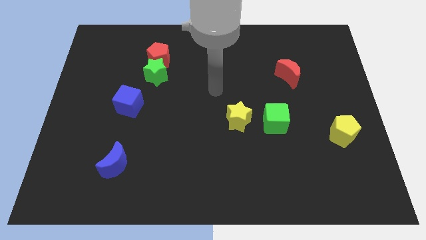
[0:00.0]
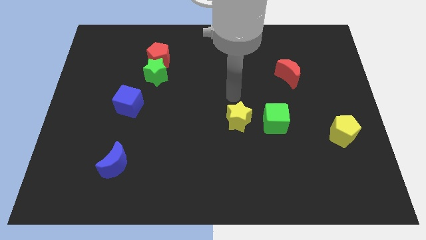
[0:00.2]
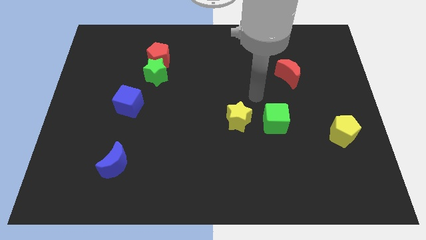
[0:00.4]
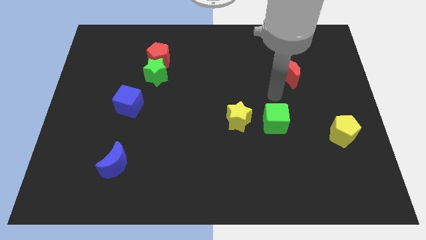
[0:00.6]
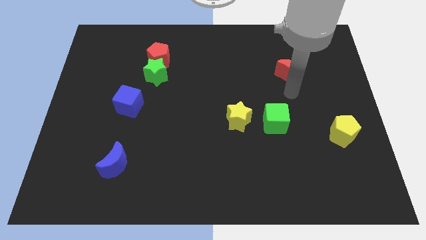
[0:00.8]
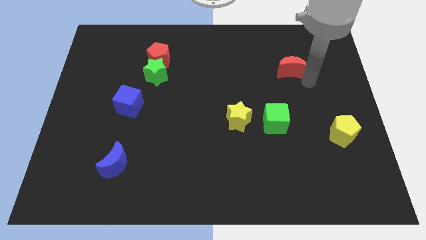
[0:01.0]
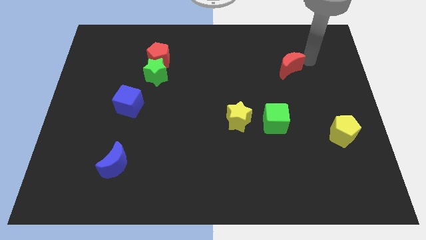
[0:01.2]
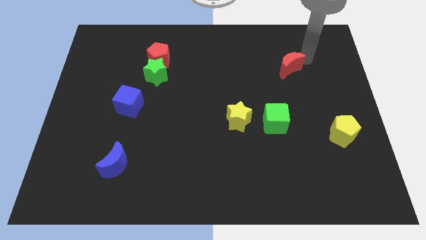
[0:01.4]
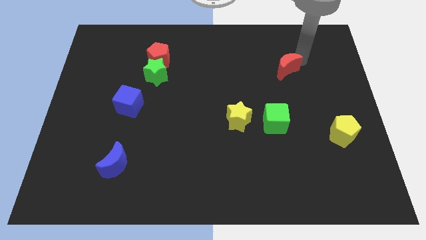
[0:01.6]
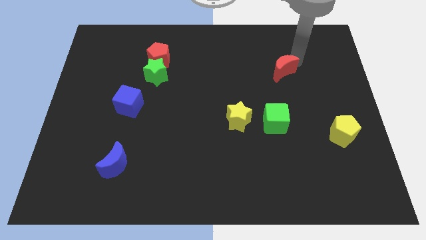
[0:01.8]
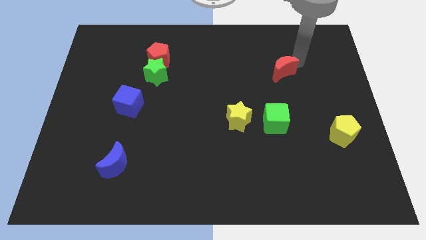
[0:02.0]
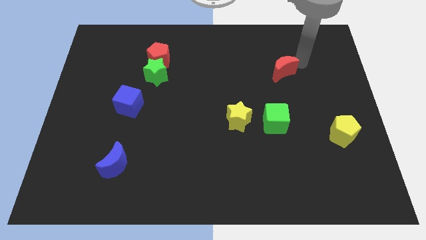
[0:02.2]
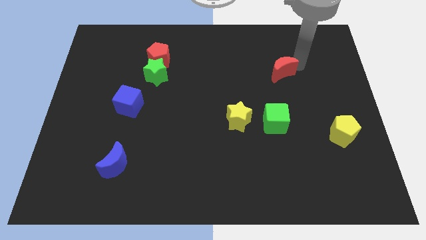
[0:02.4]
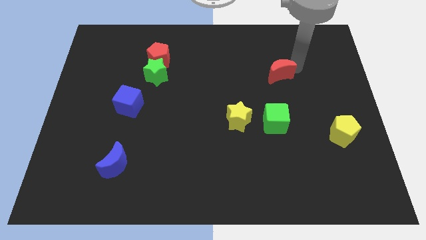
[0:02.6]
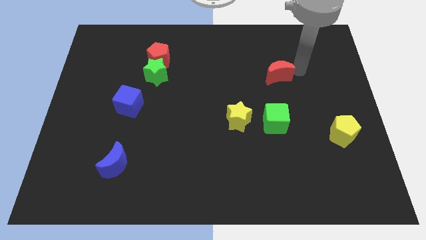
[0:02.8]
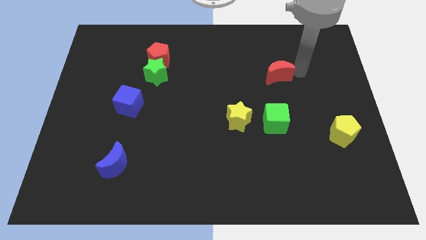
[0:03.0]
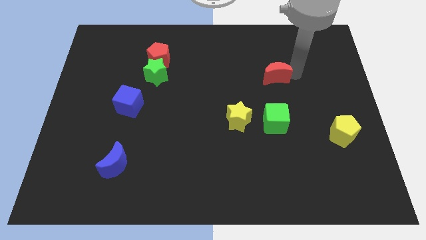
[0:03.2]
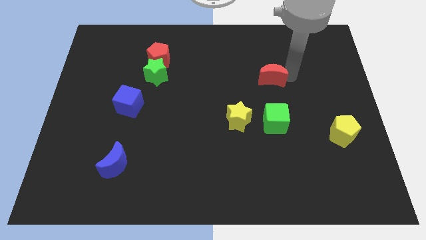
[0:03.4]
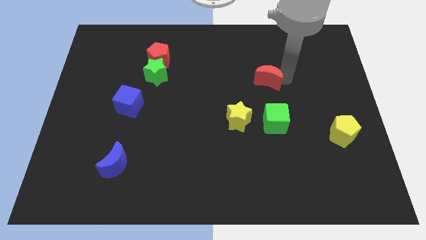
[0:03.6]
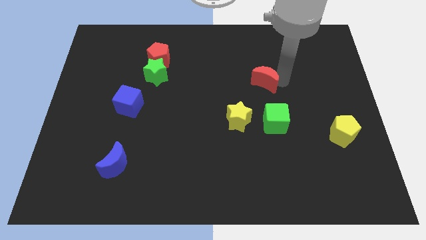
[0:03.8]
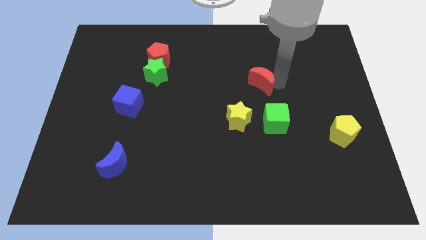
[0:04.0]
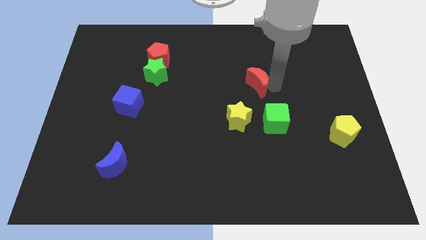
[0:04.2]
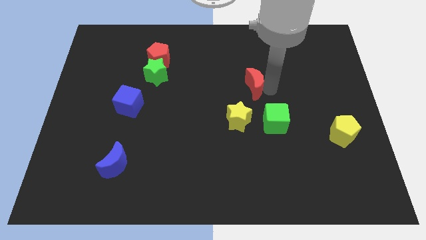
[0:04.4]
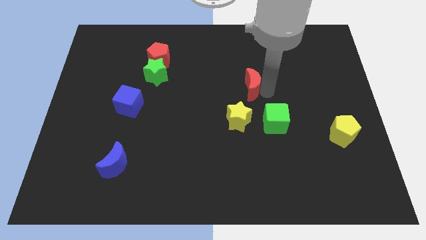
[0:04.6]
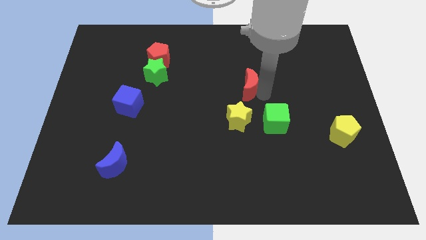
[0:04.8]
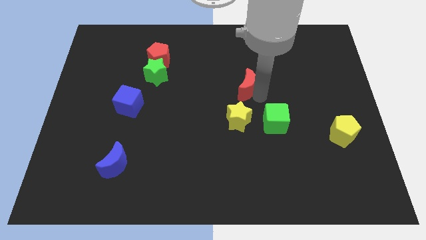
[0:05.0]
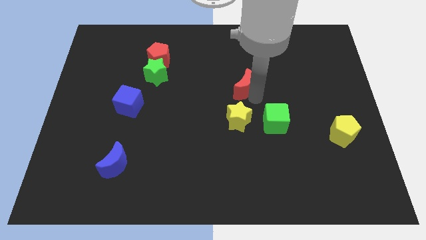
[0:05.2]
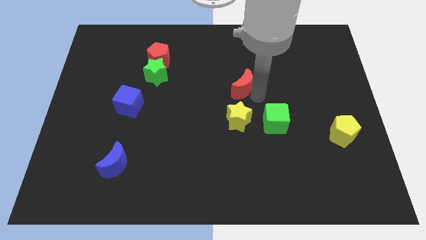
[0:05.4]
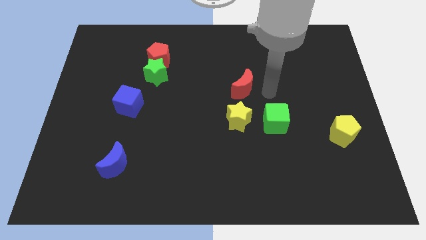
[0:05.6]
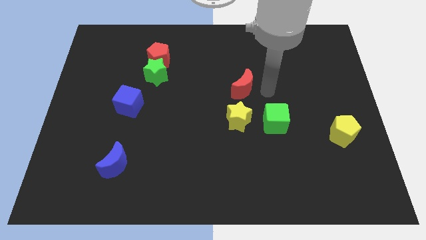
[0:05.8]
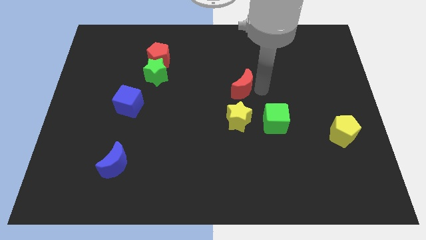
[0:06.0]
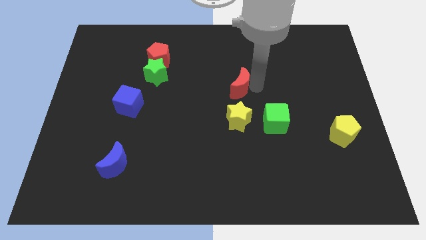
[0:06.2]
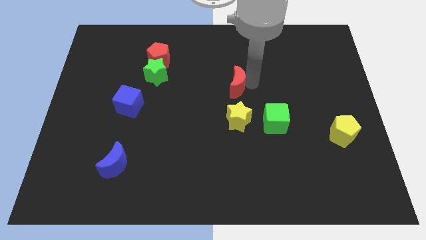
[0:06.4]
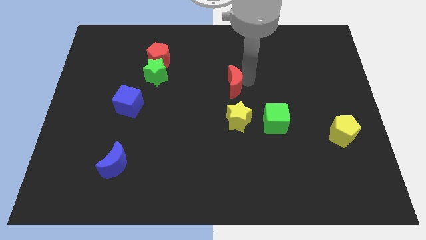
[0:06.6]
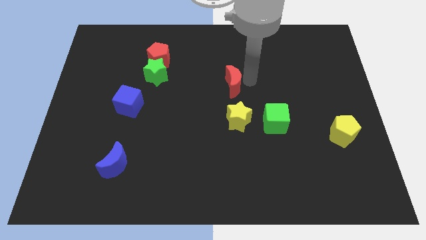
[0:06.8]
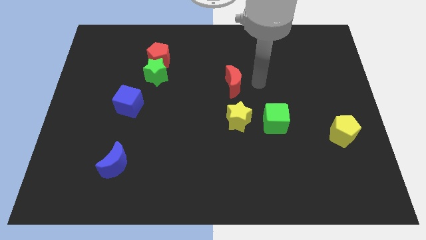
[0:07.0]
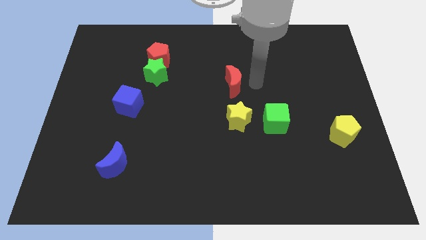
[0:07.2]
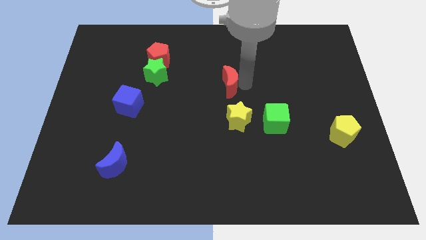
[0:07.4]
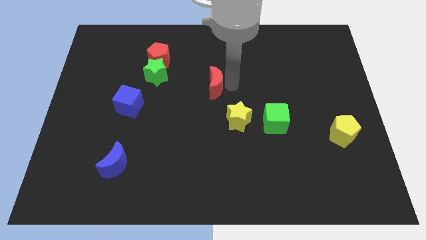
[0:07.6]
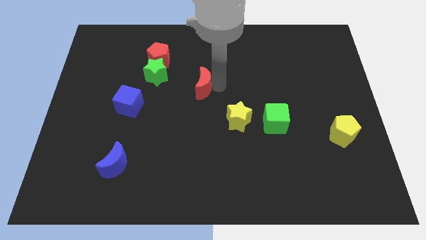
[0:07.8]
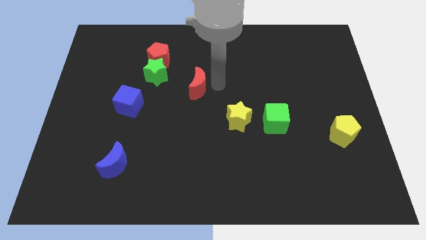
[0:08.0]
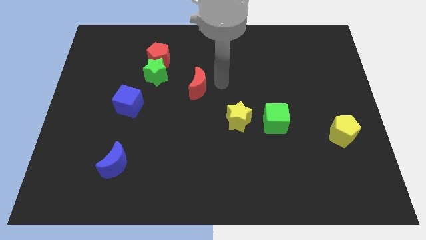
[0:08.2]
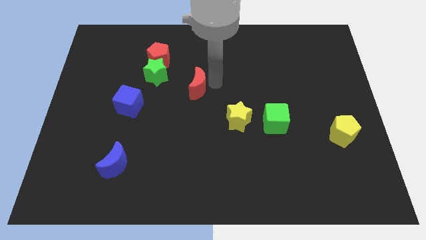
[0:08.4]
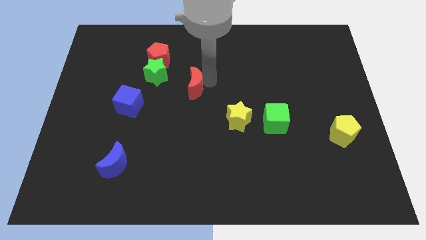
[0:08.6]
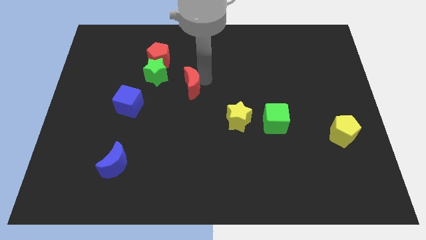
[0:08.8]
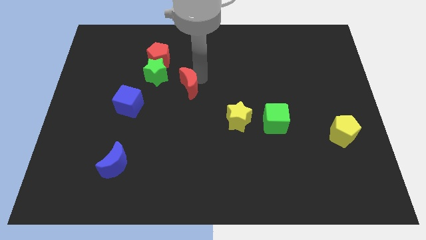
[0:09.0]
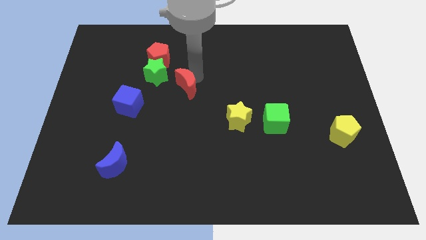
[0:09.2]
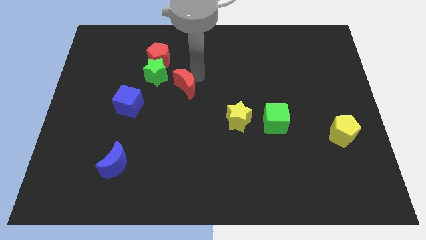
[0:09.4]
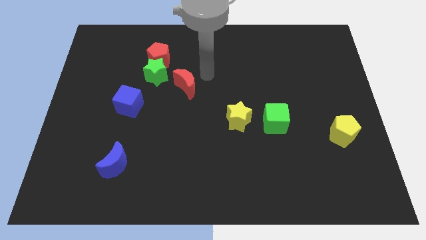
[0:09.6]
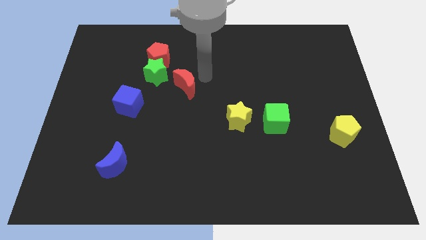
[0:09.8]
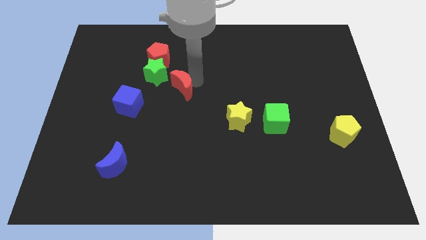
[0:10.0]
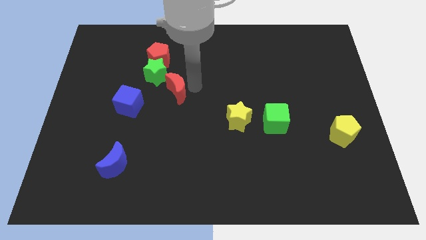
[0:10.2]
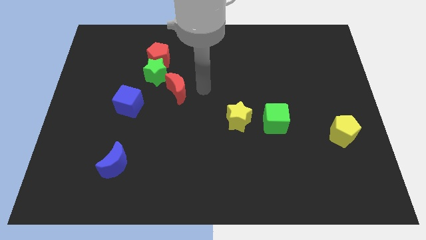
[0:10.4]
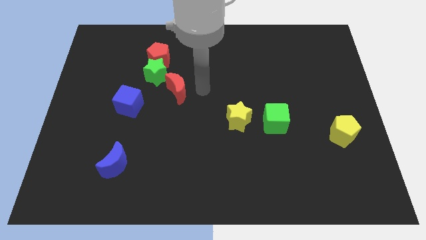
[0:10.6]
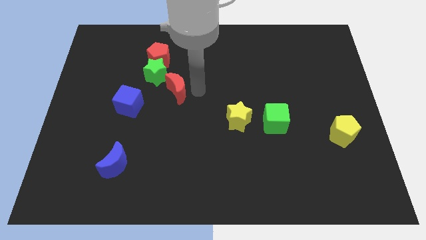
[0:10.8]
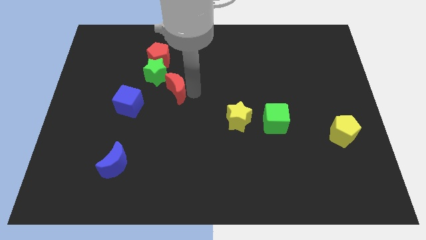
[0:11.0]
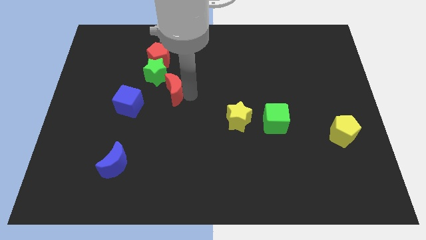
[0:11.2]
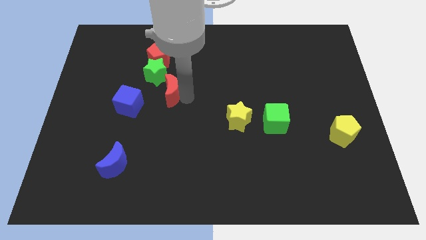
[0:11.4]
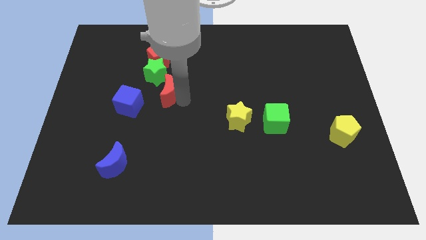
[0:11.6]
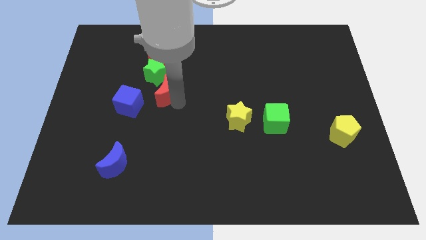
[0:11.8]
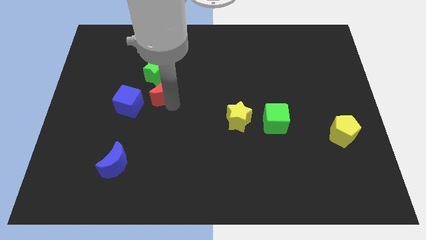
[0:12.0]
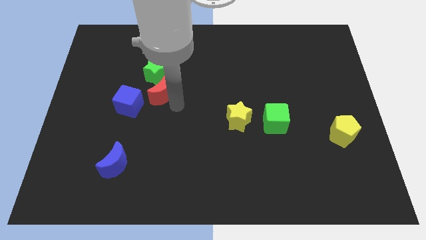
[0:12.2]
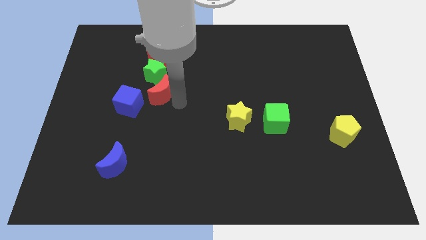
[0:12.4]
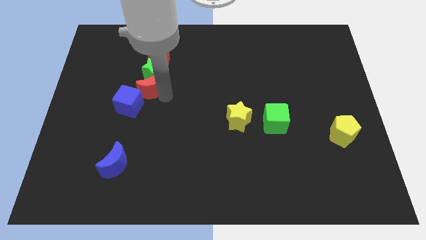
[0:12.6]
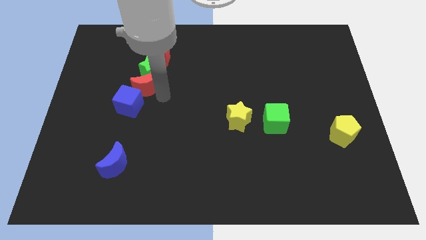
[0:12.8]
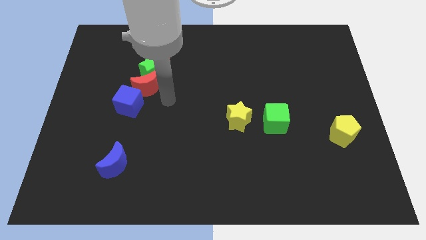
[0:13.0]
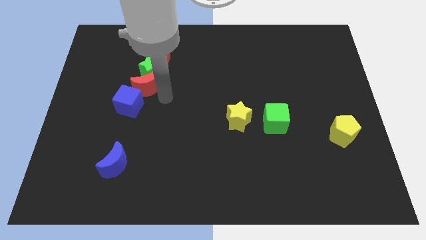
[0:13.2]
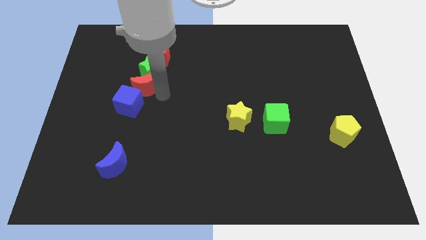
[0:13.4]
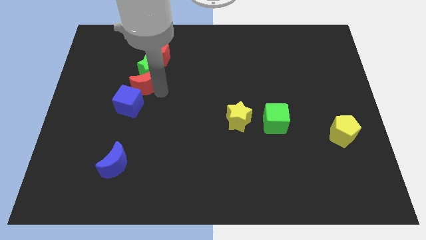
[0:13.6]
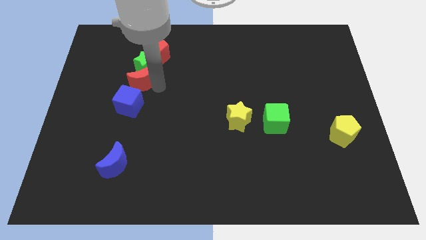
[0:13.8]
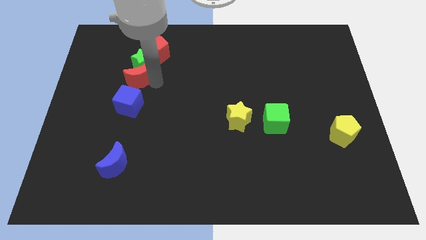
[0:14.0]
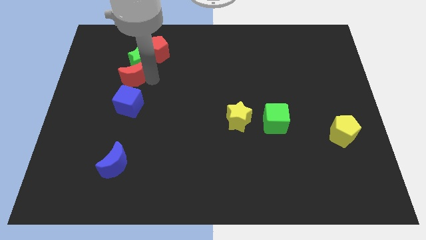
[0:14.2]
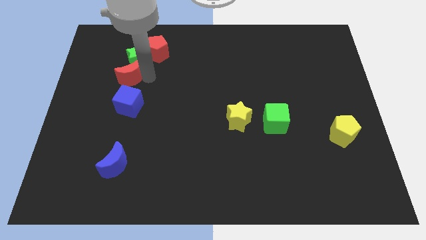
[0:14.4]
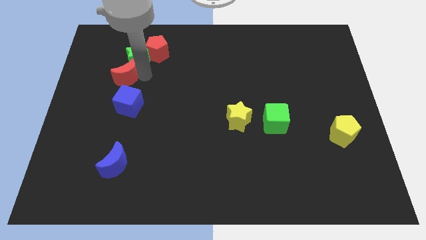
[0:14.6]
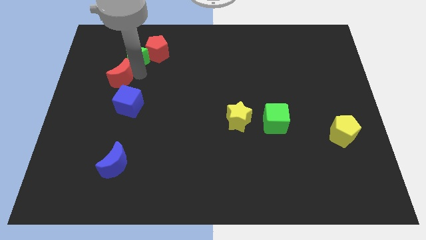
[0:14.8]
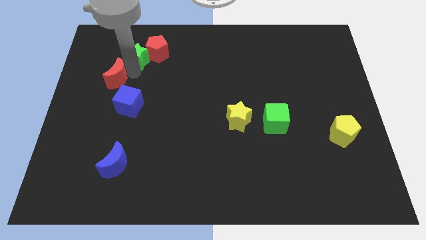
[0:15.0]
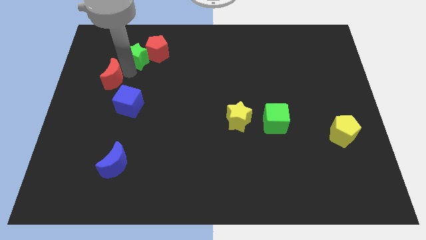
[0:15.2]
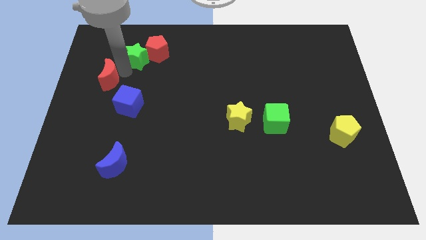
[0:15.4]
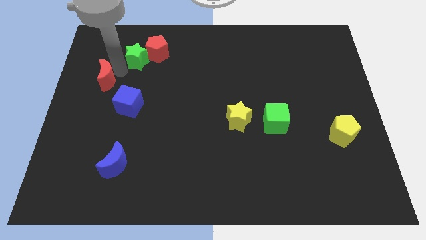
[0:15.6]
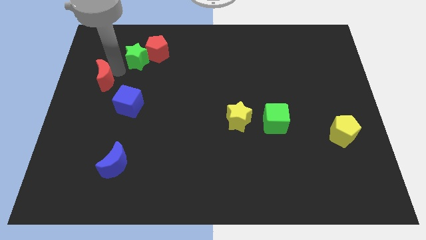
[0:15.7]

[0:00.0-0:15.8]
push the red moon to the center left
